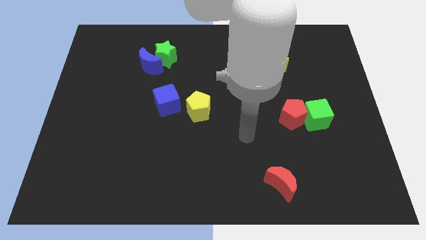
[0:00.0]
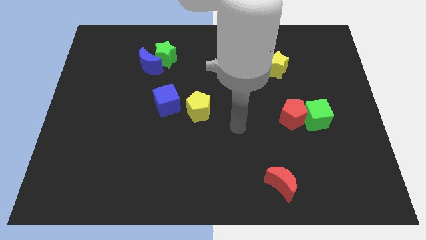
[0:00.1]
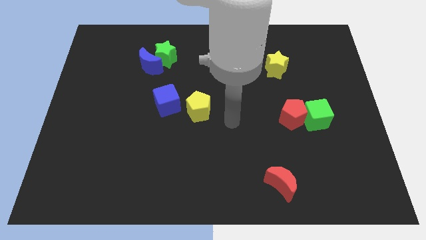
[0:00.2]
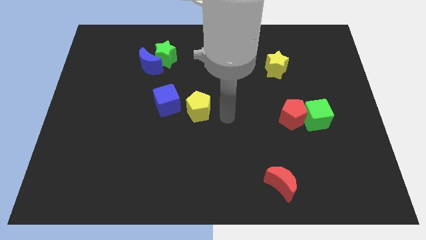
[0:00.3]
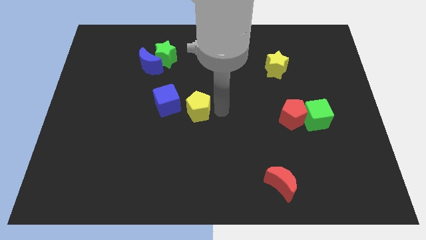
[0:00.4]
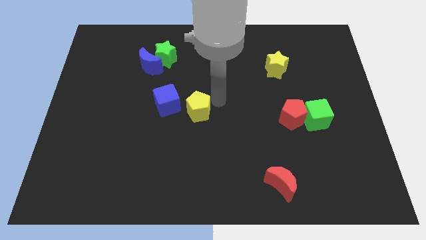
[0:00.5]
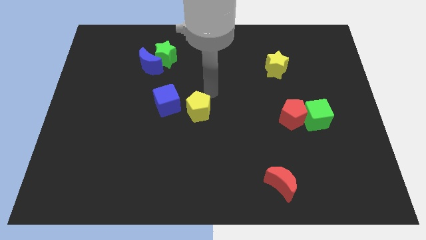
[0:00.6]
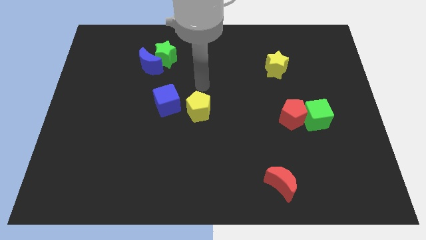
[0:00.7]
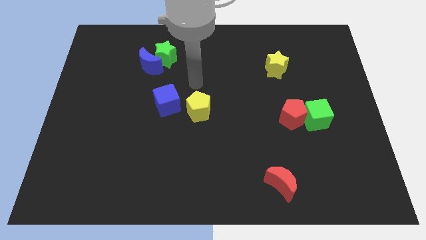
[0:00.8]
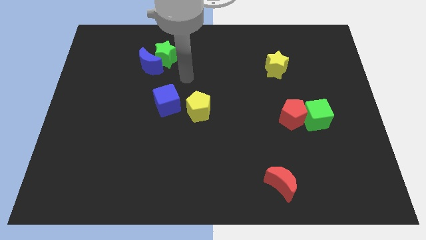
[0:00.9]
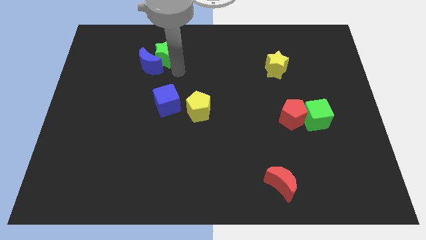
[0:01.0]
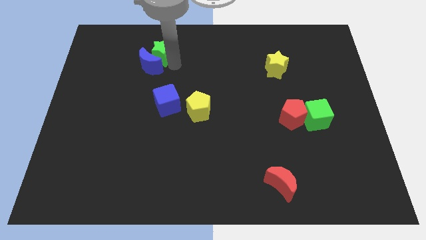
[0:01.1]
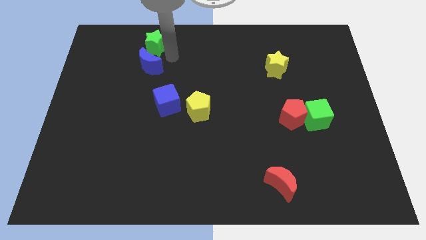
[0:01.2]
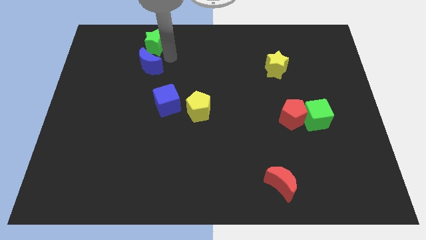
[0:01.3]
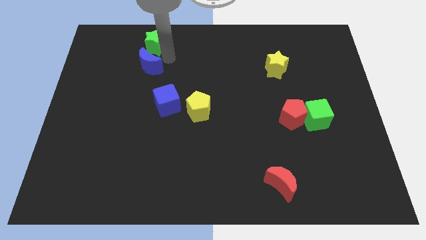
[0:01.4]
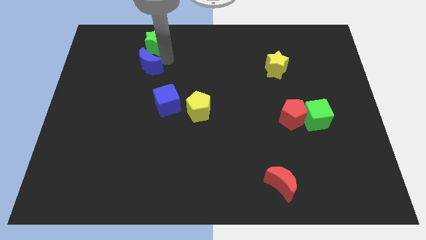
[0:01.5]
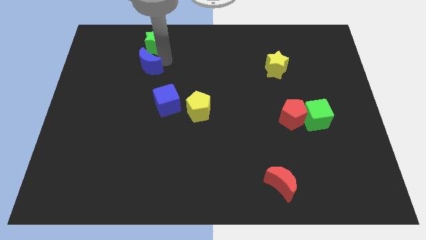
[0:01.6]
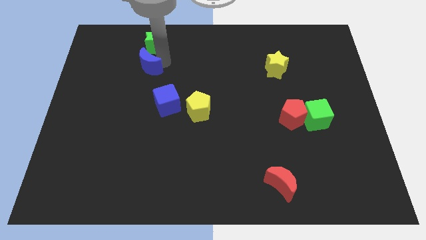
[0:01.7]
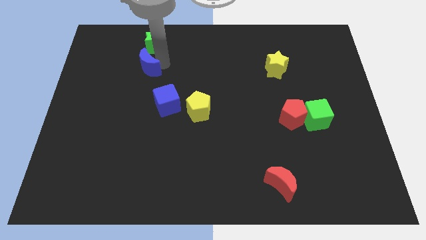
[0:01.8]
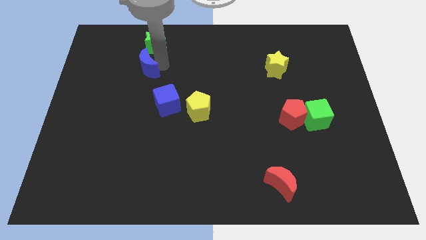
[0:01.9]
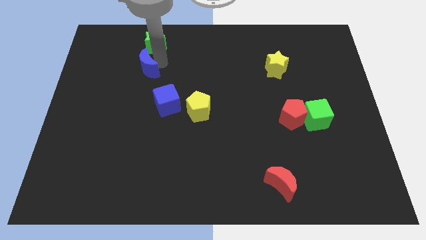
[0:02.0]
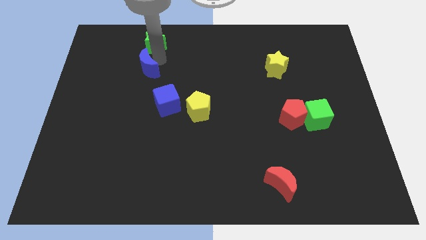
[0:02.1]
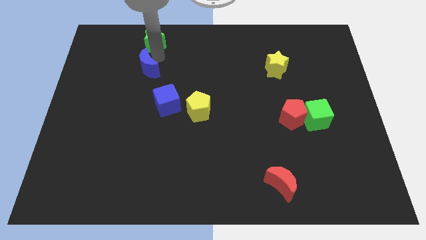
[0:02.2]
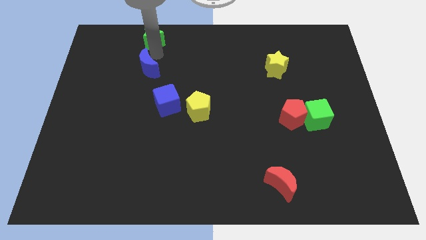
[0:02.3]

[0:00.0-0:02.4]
move the blue moon away from the green star

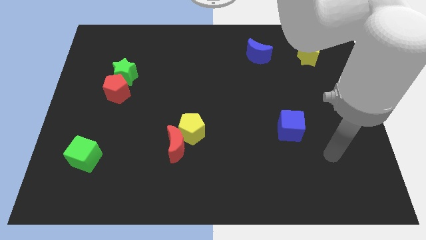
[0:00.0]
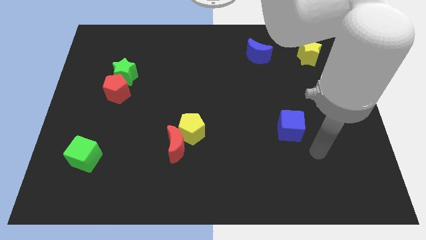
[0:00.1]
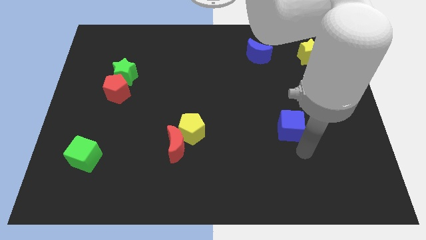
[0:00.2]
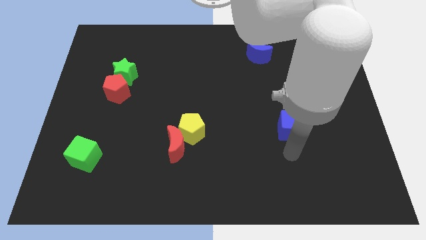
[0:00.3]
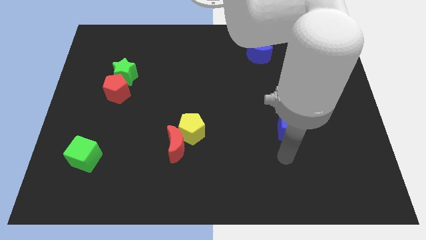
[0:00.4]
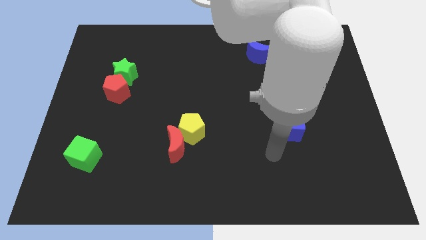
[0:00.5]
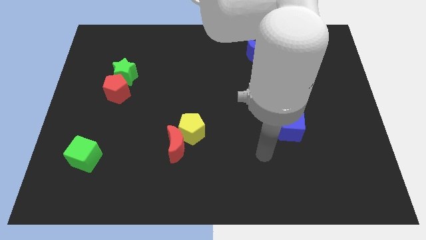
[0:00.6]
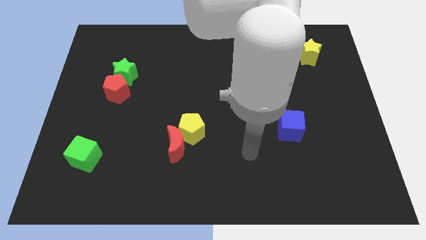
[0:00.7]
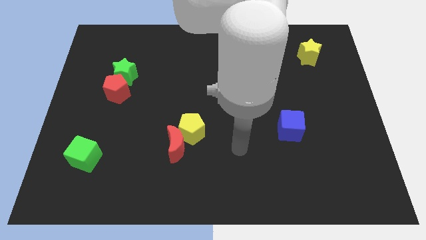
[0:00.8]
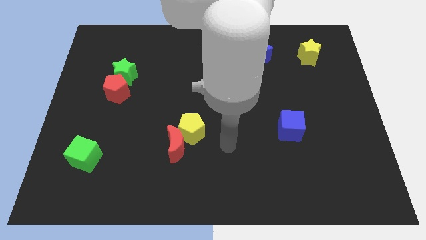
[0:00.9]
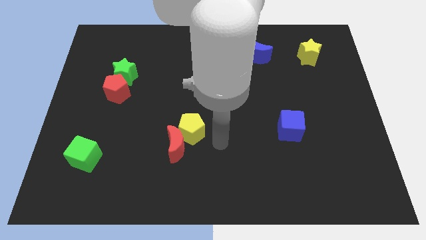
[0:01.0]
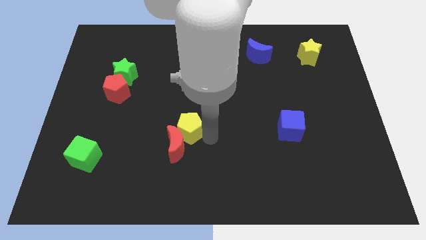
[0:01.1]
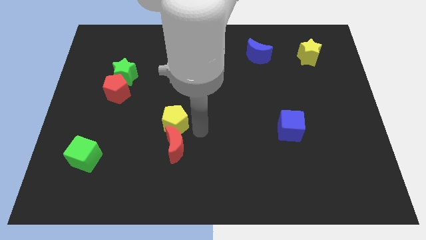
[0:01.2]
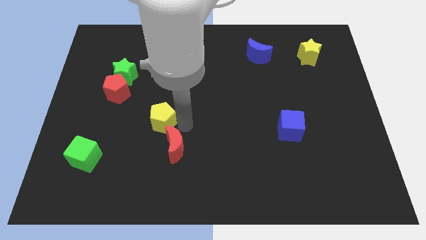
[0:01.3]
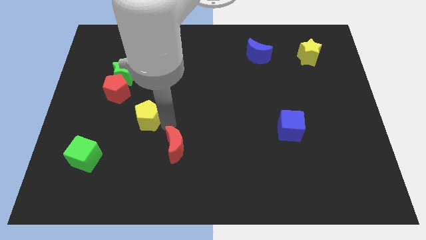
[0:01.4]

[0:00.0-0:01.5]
separate the red moon from the yellow pentagon

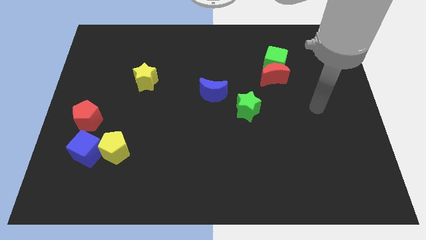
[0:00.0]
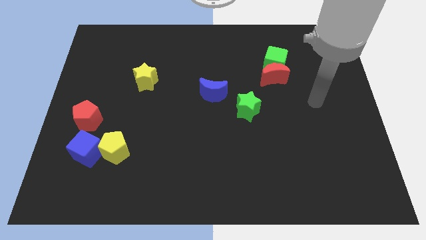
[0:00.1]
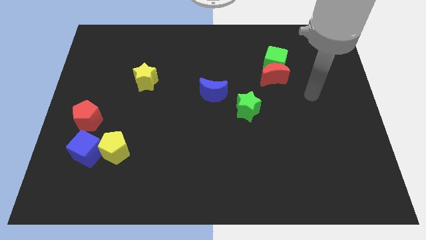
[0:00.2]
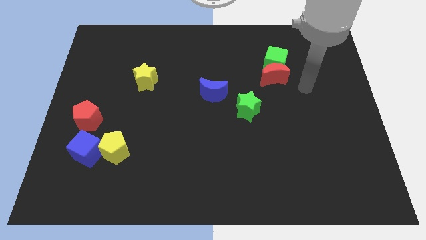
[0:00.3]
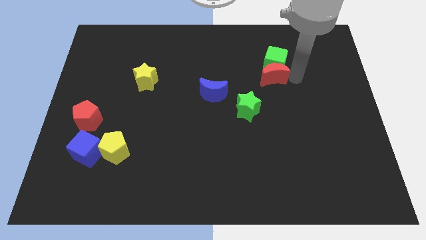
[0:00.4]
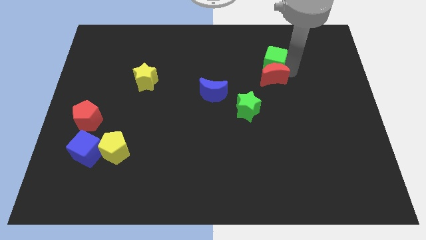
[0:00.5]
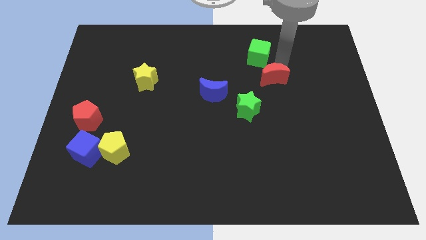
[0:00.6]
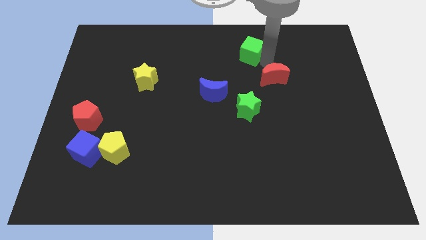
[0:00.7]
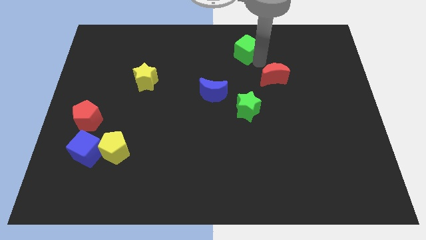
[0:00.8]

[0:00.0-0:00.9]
separate the red moon from the green cube

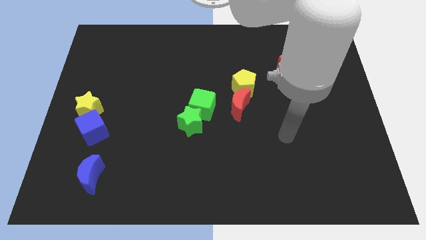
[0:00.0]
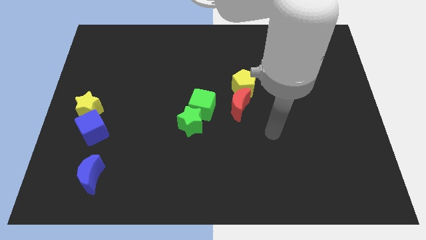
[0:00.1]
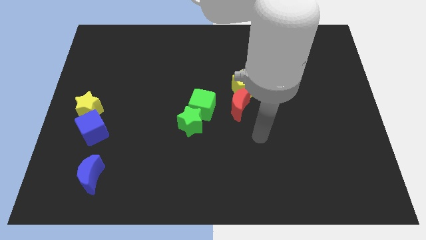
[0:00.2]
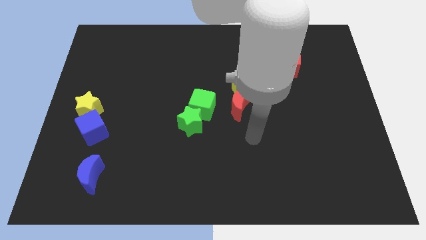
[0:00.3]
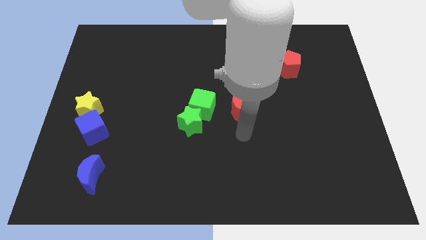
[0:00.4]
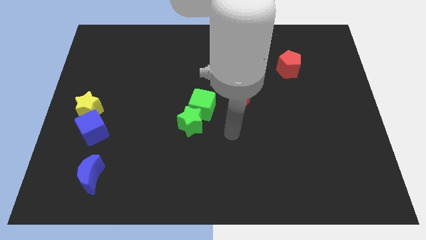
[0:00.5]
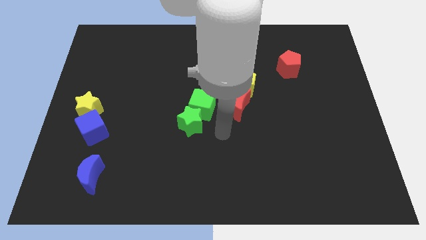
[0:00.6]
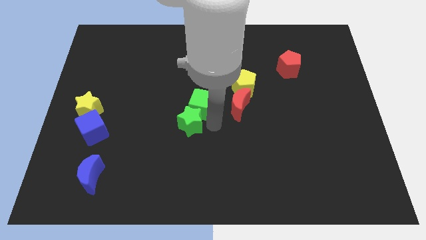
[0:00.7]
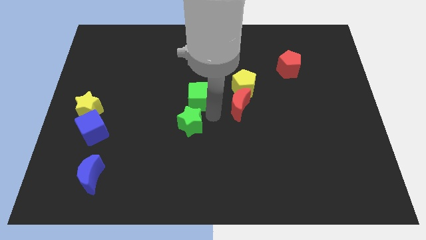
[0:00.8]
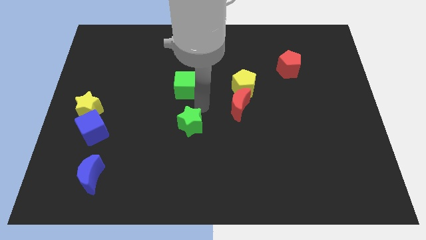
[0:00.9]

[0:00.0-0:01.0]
separate the green star from the green cube

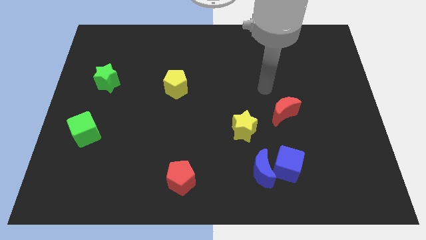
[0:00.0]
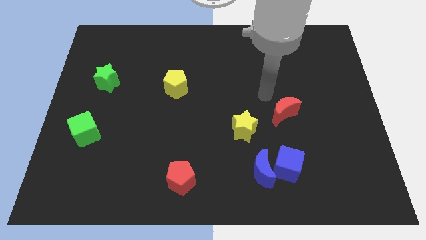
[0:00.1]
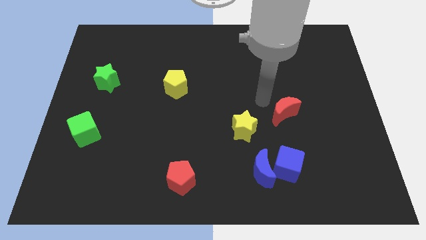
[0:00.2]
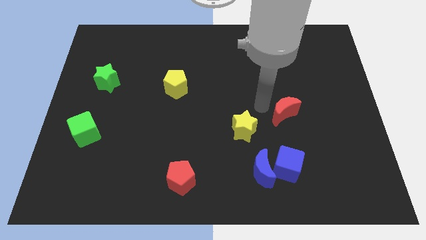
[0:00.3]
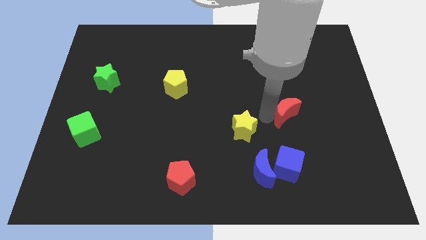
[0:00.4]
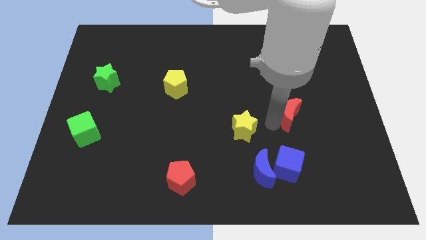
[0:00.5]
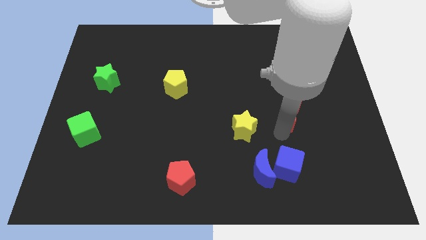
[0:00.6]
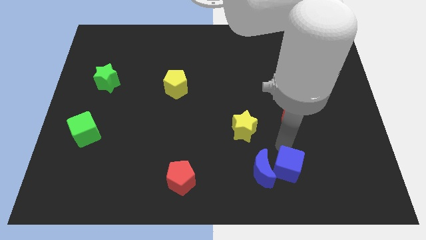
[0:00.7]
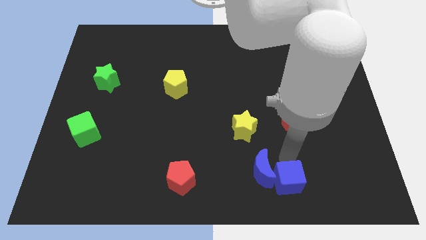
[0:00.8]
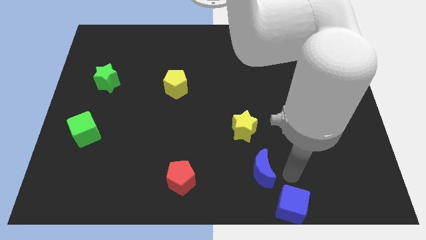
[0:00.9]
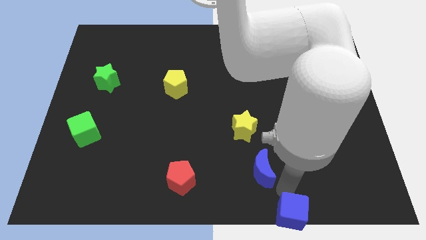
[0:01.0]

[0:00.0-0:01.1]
separate the blue moon from the blue cube

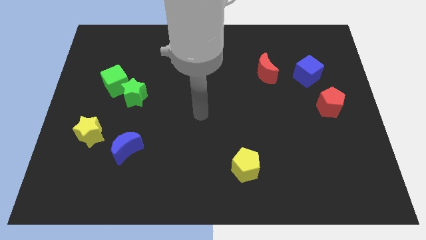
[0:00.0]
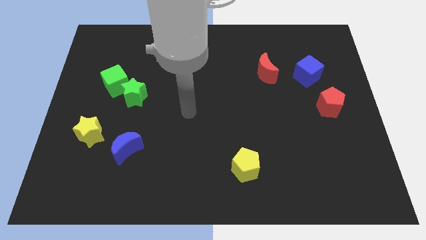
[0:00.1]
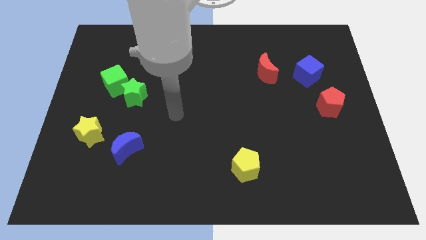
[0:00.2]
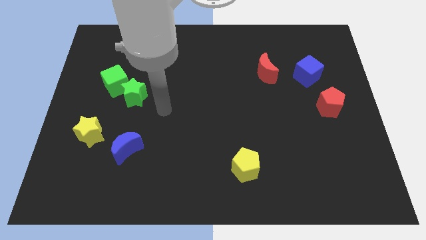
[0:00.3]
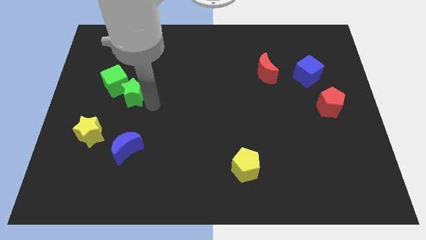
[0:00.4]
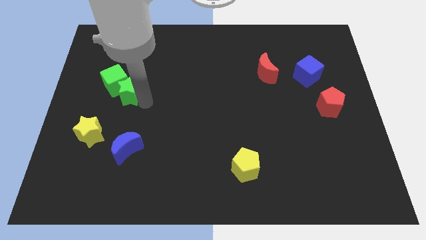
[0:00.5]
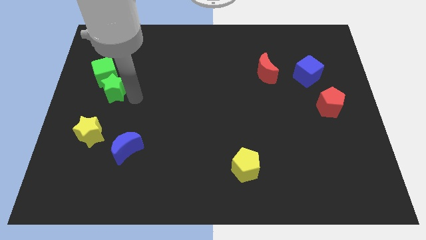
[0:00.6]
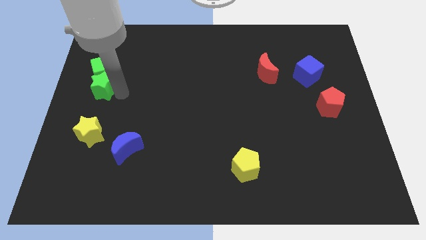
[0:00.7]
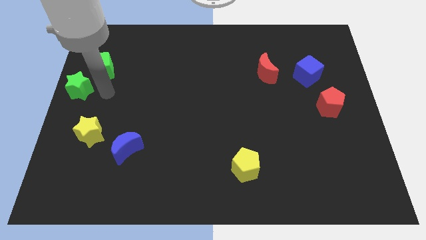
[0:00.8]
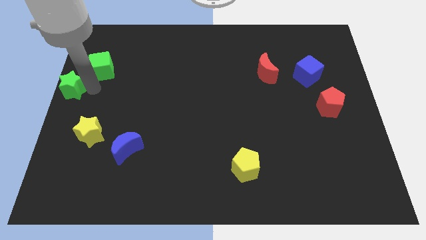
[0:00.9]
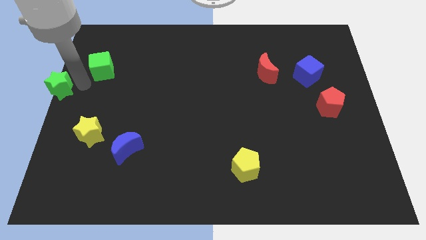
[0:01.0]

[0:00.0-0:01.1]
move the green cube away from the green star

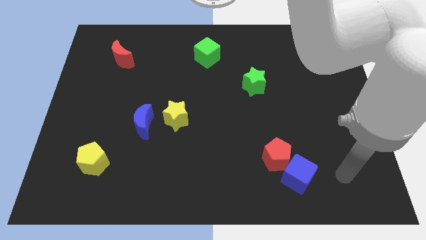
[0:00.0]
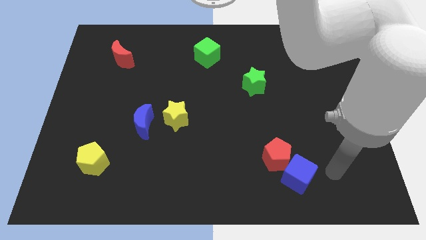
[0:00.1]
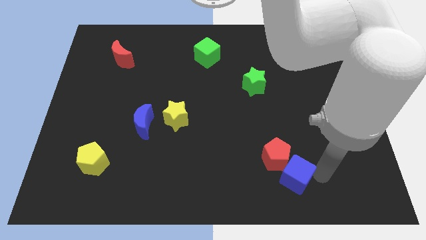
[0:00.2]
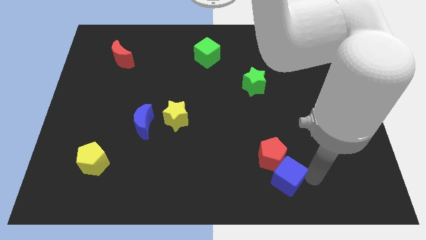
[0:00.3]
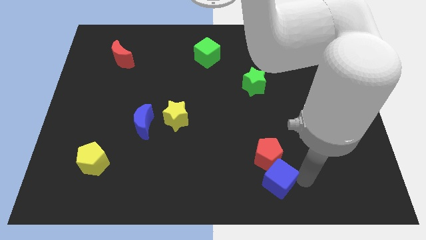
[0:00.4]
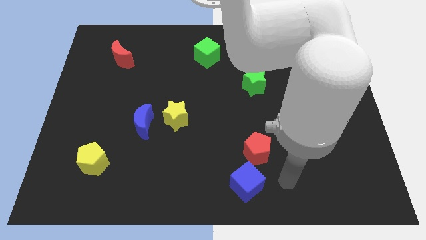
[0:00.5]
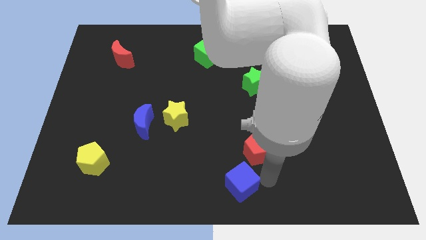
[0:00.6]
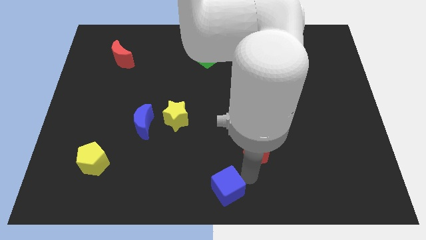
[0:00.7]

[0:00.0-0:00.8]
separate the red pentagon from the blue cube

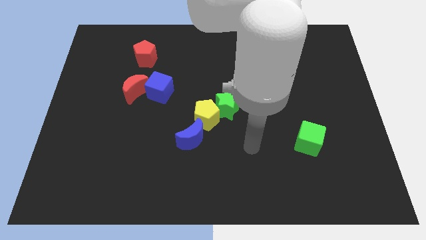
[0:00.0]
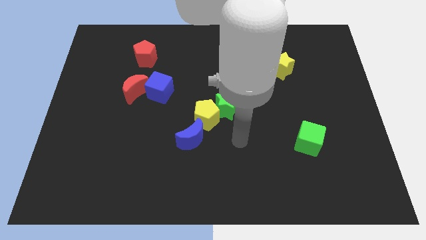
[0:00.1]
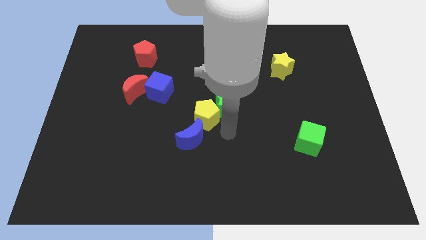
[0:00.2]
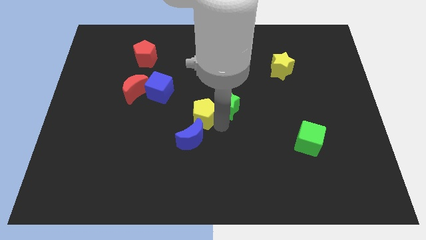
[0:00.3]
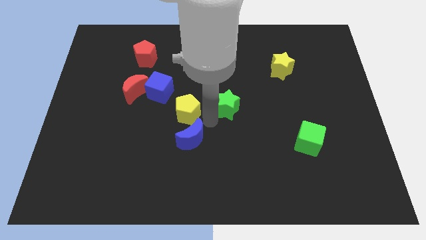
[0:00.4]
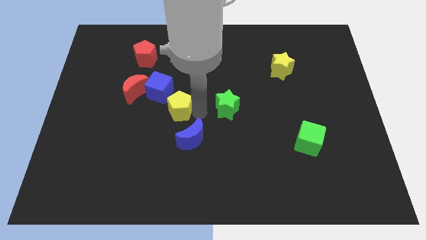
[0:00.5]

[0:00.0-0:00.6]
separate the green star from the yellow pentagon
